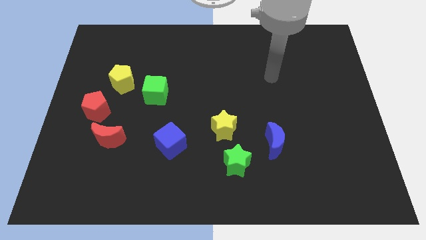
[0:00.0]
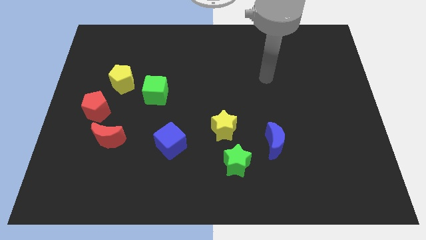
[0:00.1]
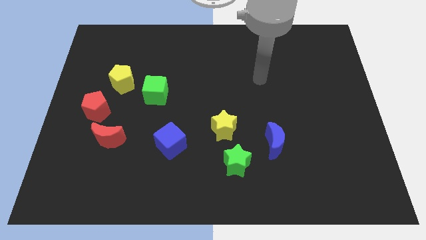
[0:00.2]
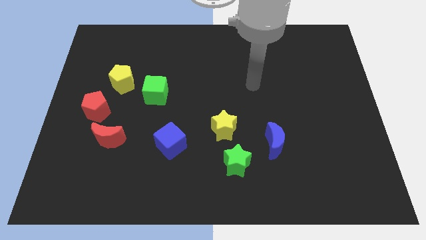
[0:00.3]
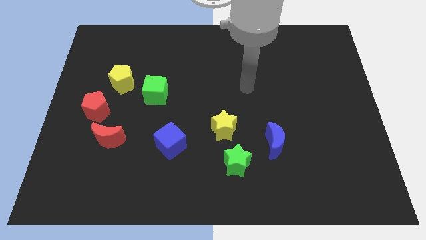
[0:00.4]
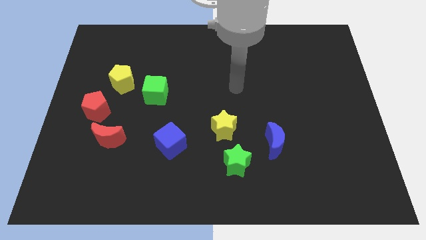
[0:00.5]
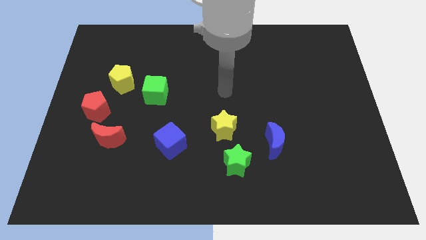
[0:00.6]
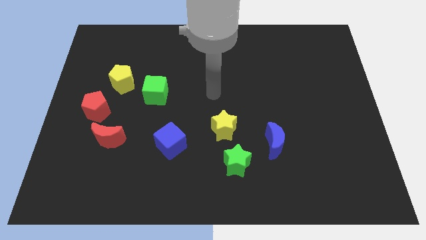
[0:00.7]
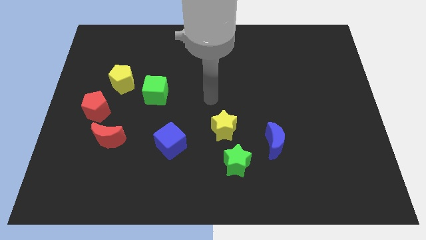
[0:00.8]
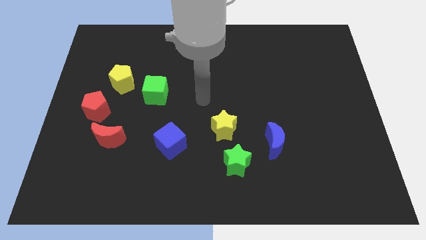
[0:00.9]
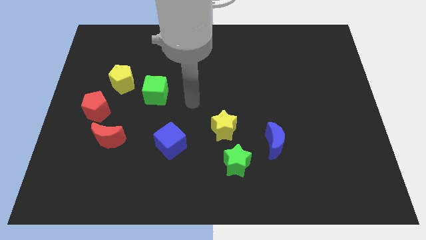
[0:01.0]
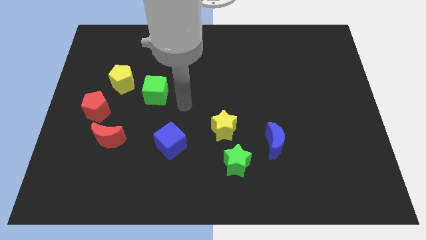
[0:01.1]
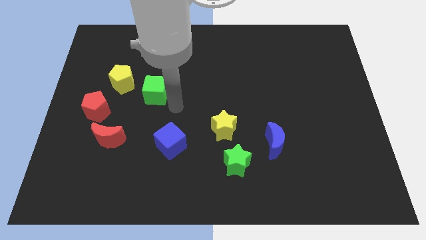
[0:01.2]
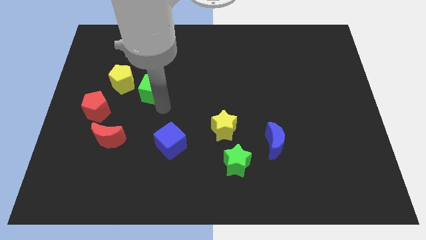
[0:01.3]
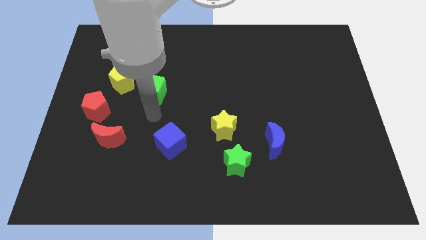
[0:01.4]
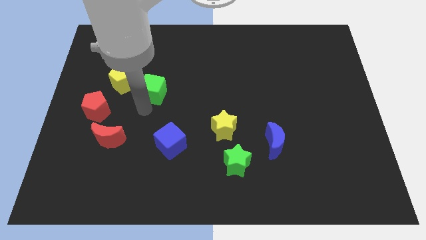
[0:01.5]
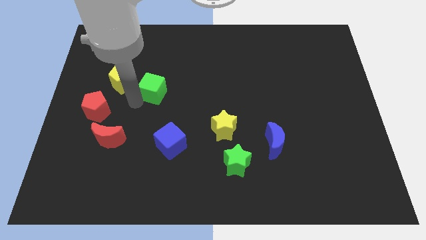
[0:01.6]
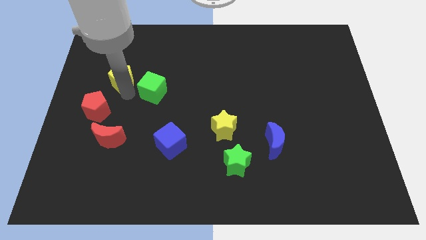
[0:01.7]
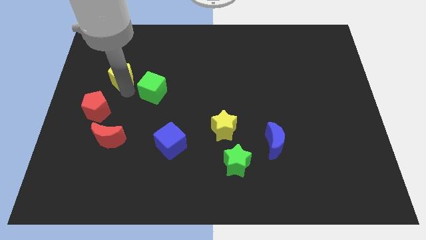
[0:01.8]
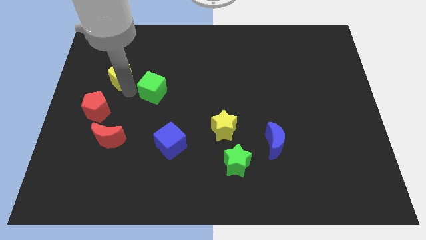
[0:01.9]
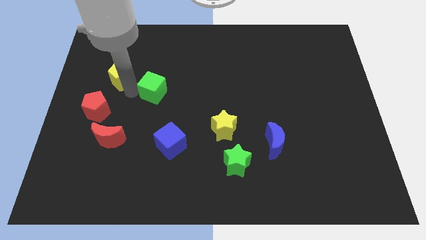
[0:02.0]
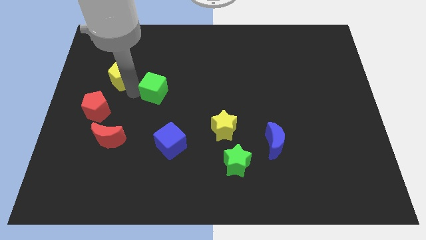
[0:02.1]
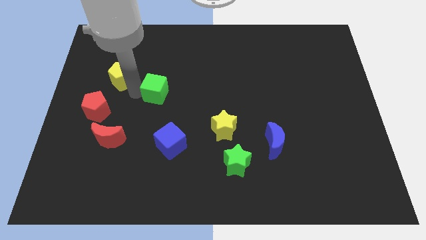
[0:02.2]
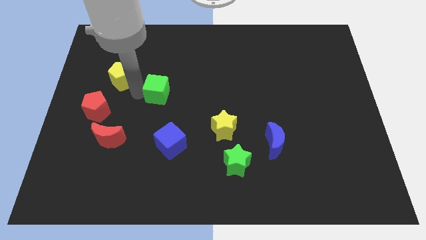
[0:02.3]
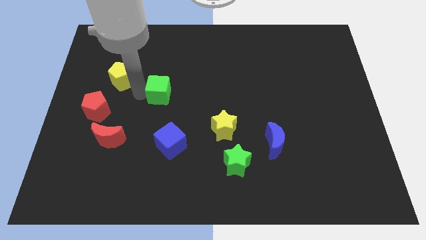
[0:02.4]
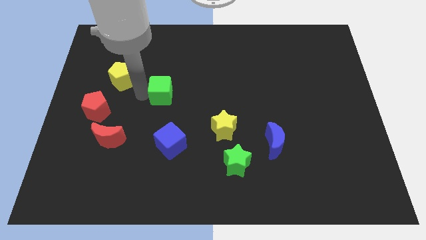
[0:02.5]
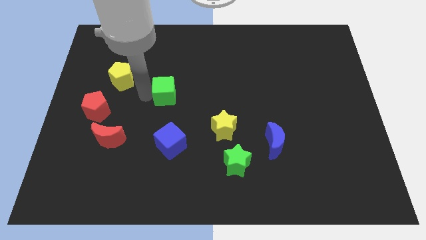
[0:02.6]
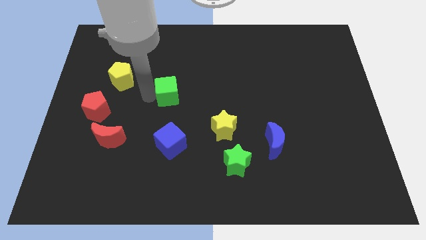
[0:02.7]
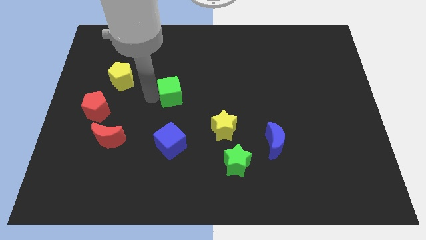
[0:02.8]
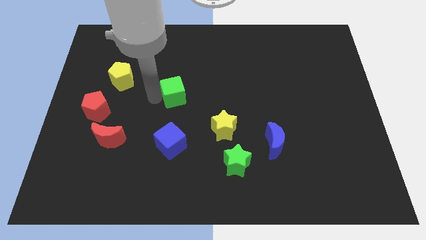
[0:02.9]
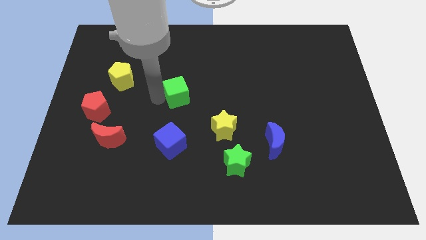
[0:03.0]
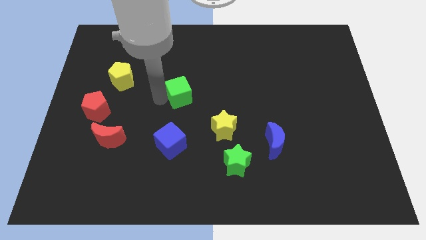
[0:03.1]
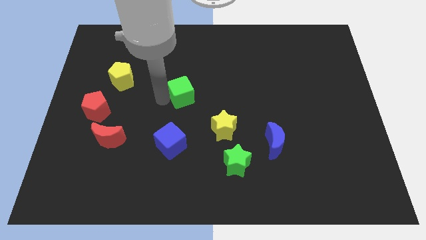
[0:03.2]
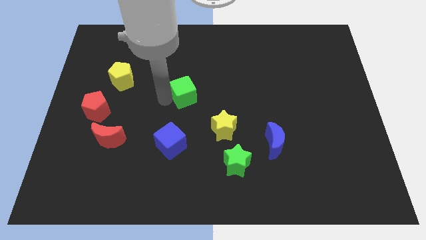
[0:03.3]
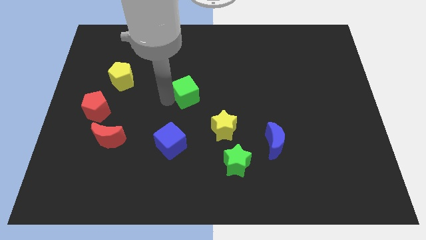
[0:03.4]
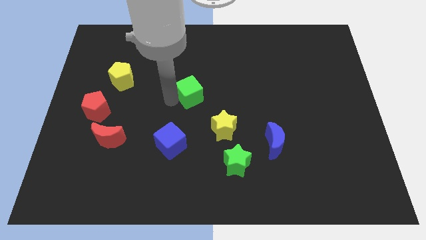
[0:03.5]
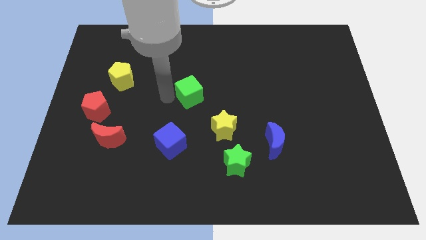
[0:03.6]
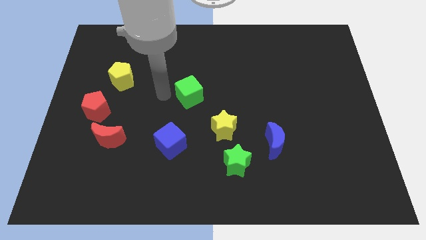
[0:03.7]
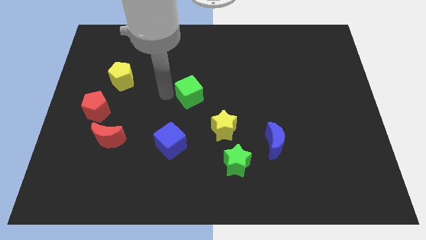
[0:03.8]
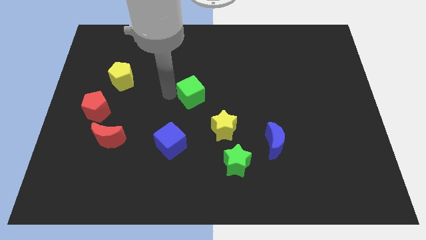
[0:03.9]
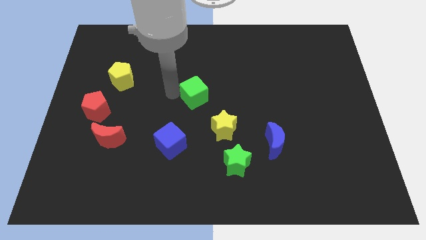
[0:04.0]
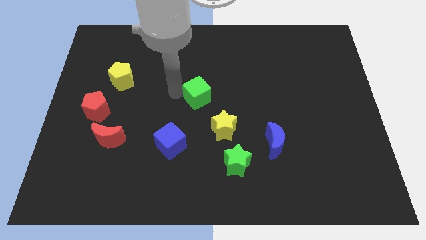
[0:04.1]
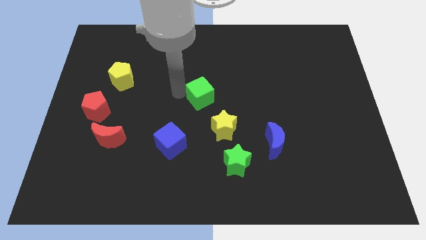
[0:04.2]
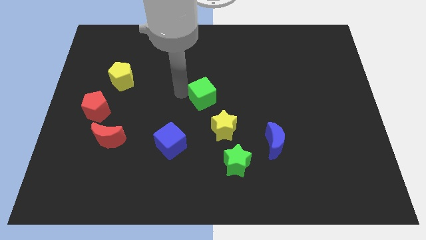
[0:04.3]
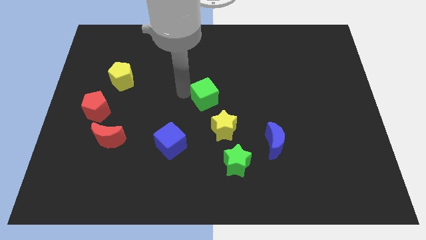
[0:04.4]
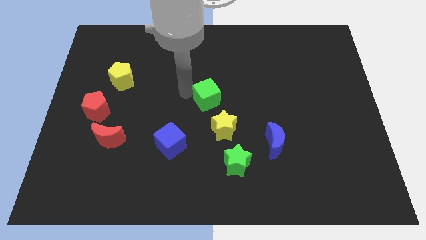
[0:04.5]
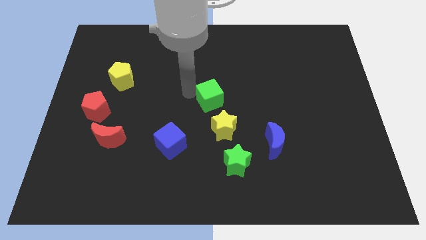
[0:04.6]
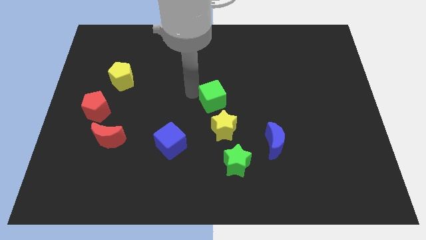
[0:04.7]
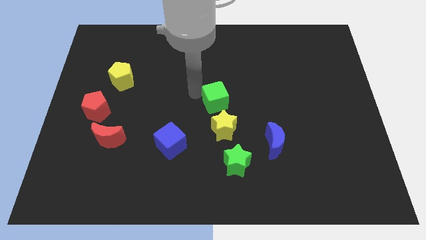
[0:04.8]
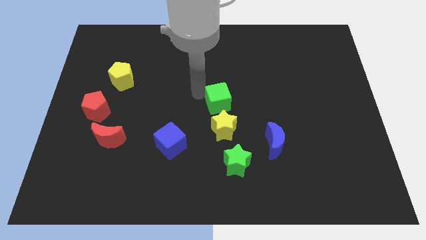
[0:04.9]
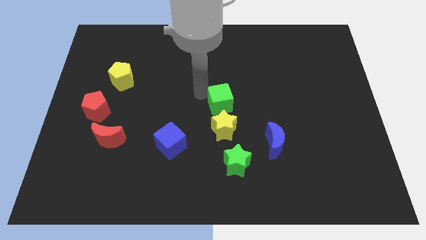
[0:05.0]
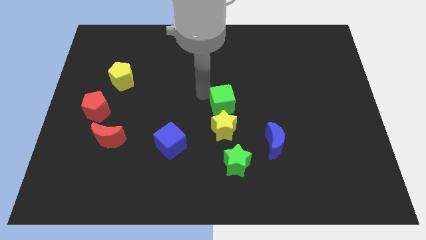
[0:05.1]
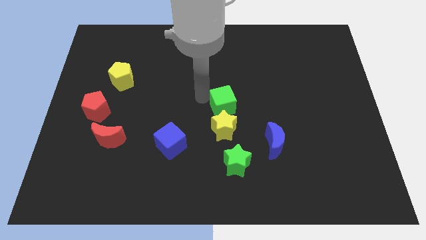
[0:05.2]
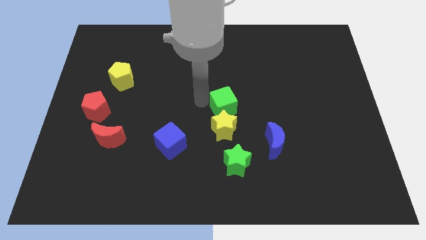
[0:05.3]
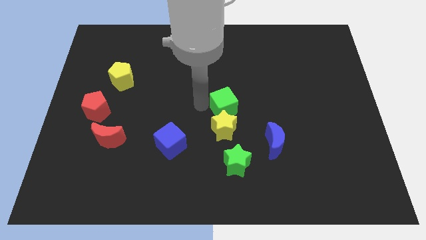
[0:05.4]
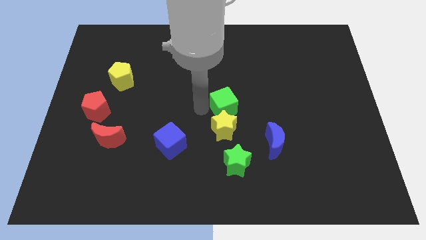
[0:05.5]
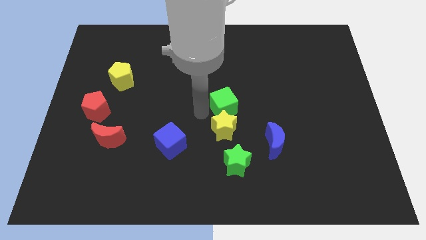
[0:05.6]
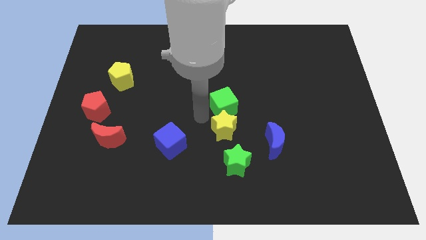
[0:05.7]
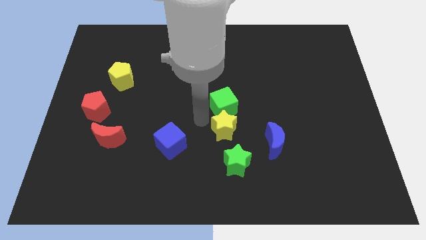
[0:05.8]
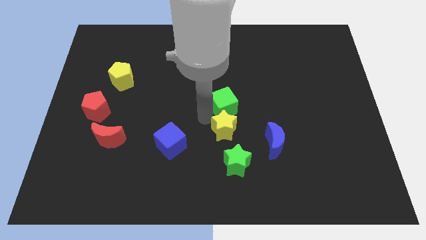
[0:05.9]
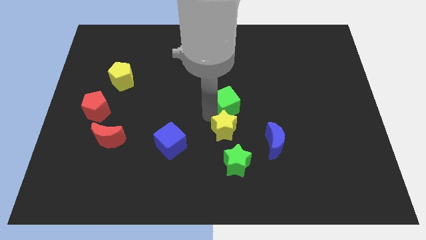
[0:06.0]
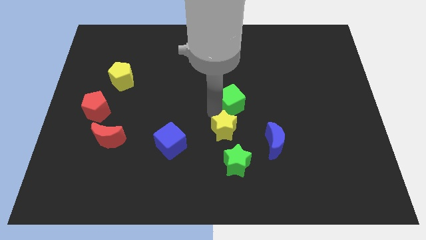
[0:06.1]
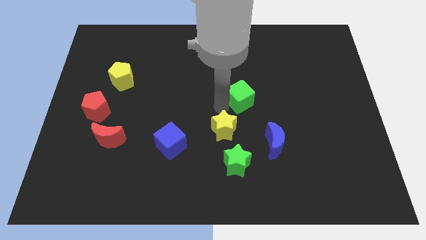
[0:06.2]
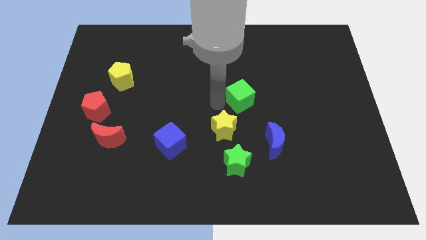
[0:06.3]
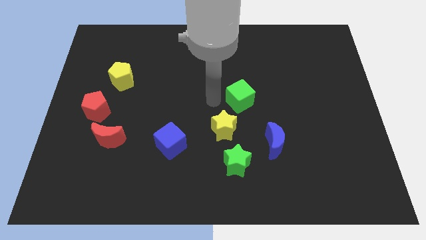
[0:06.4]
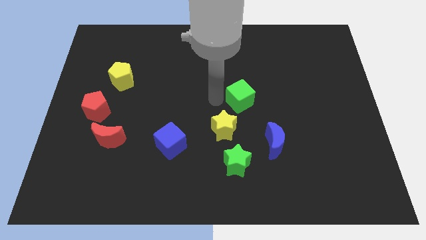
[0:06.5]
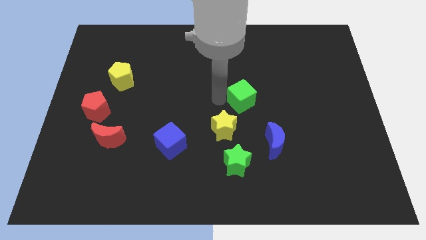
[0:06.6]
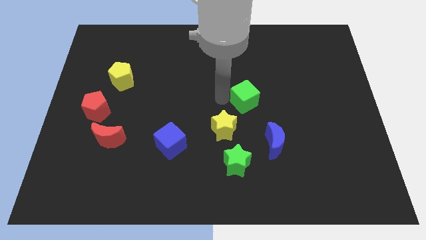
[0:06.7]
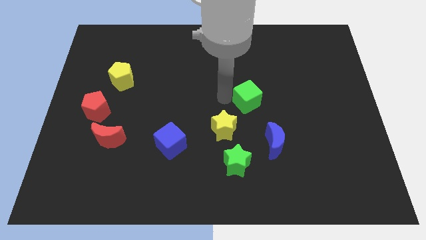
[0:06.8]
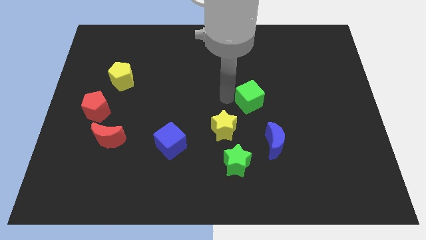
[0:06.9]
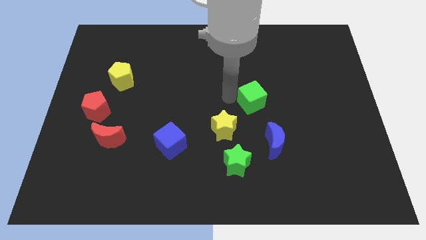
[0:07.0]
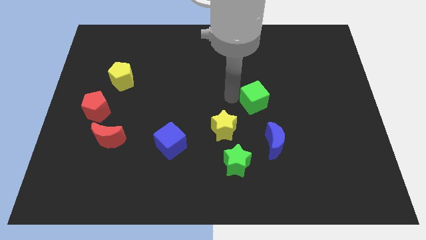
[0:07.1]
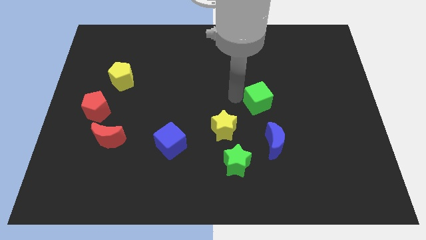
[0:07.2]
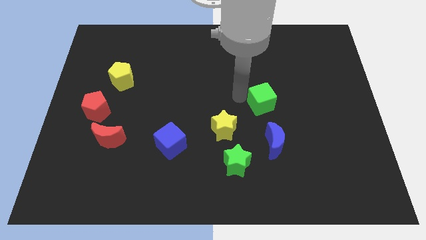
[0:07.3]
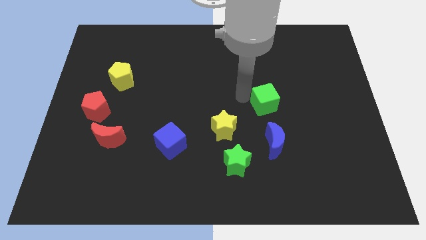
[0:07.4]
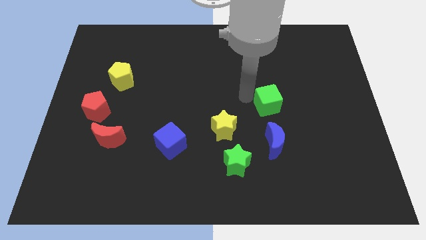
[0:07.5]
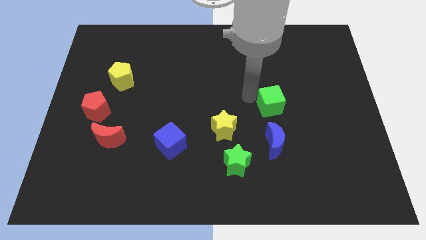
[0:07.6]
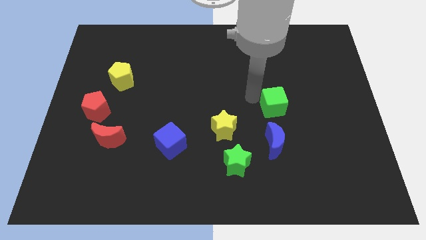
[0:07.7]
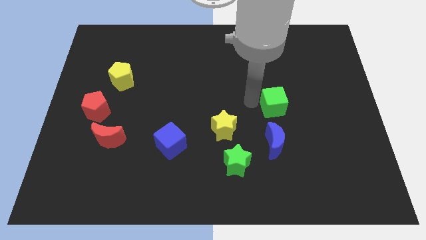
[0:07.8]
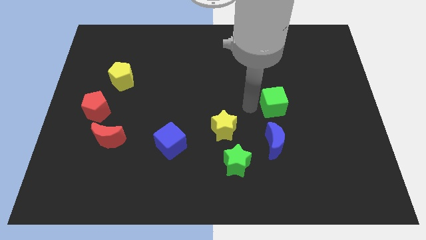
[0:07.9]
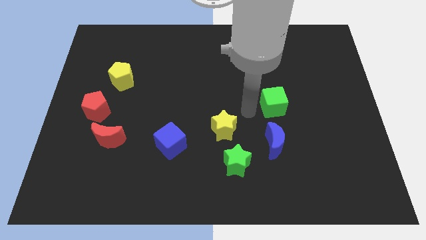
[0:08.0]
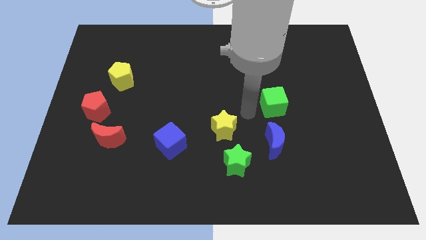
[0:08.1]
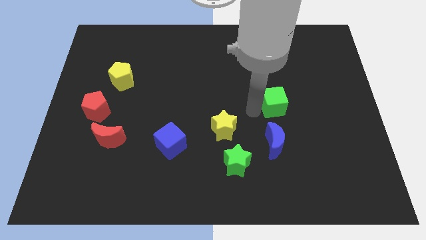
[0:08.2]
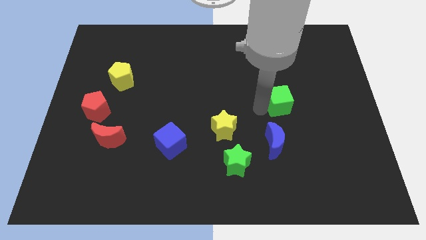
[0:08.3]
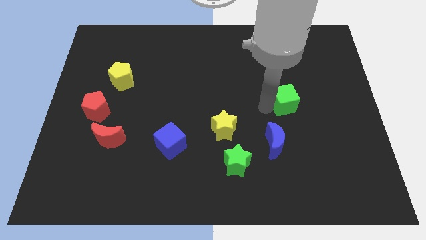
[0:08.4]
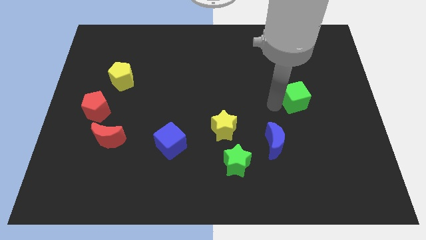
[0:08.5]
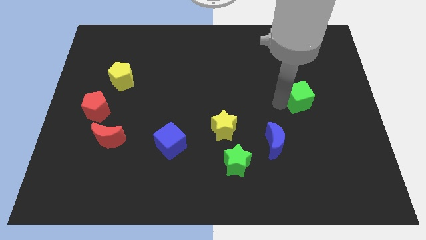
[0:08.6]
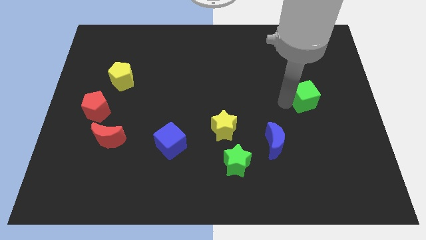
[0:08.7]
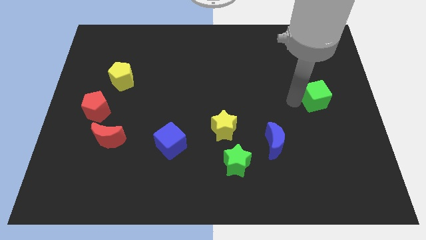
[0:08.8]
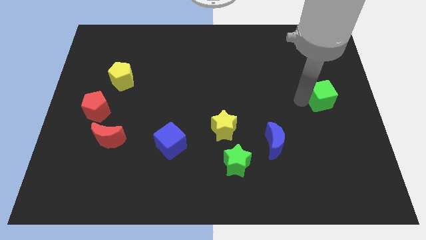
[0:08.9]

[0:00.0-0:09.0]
push the green cube to the right side
